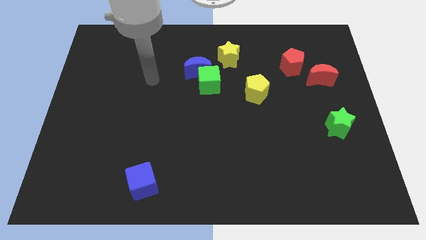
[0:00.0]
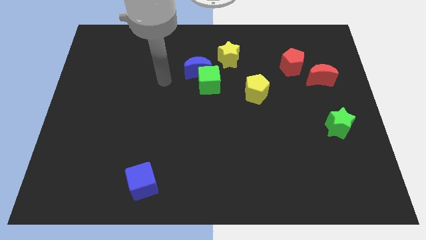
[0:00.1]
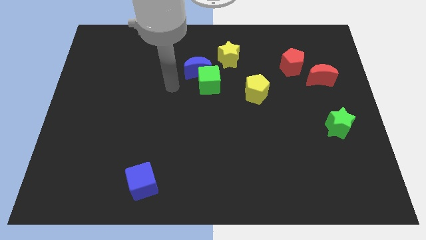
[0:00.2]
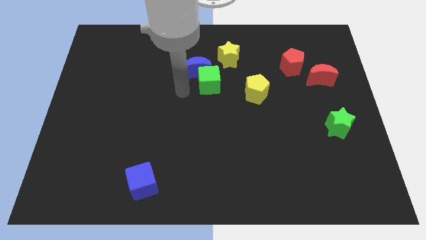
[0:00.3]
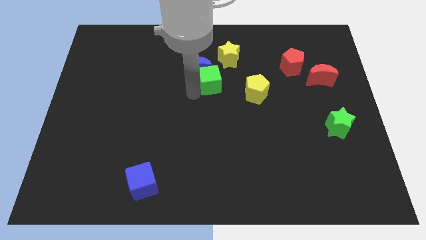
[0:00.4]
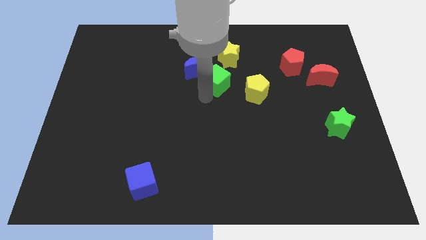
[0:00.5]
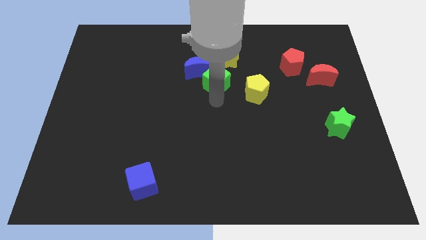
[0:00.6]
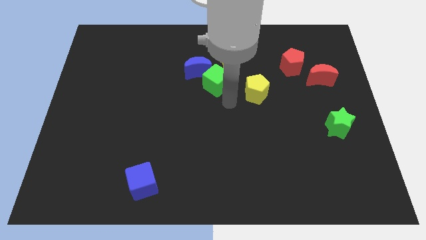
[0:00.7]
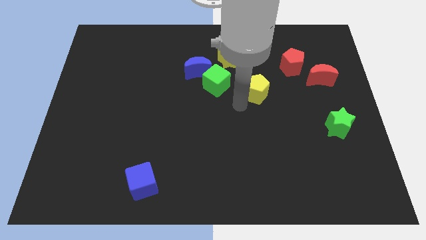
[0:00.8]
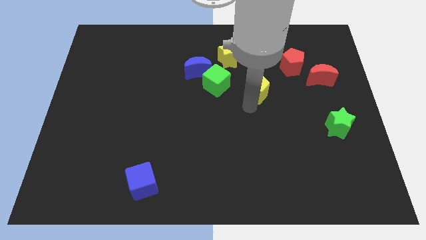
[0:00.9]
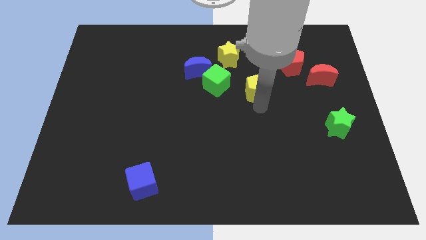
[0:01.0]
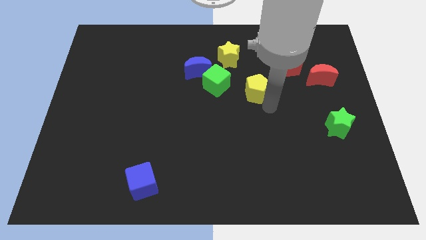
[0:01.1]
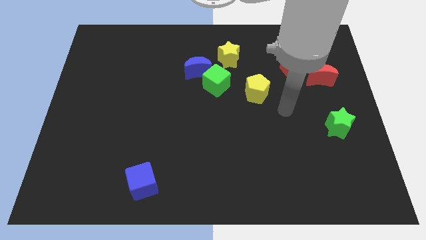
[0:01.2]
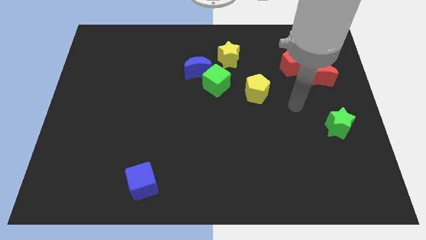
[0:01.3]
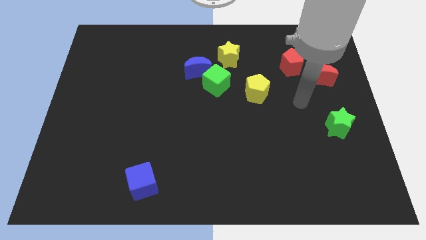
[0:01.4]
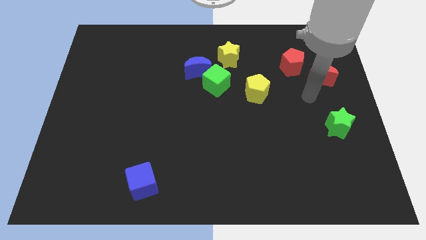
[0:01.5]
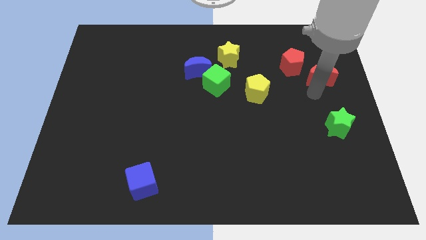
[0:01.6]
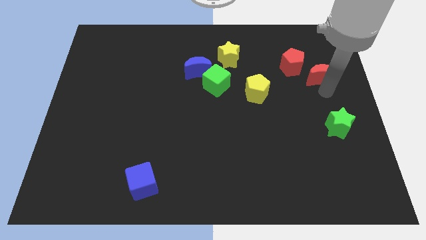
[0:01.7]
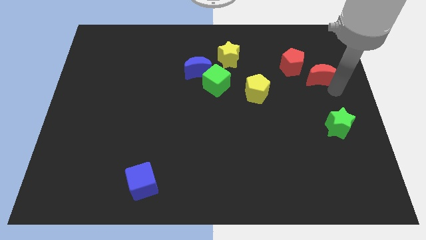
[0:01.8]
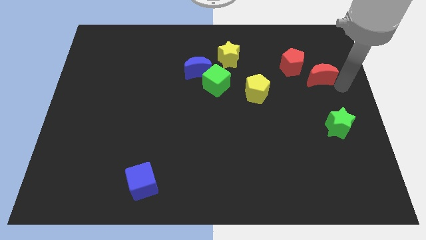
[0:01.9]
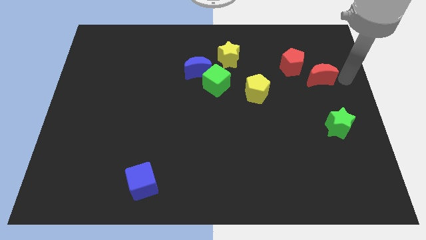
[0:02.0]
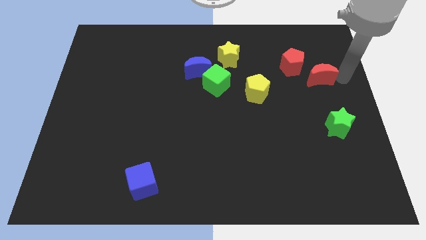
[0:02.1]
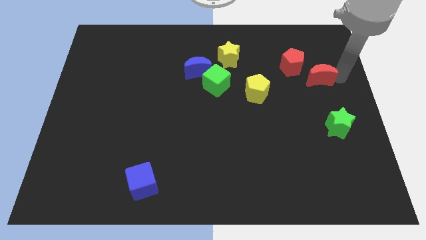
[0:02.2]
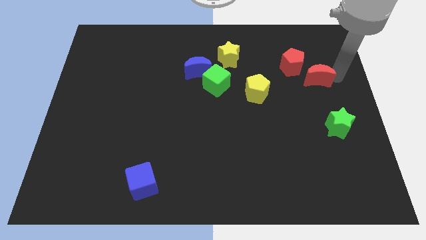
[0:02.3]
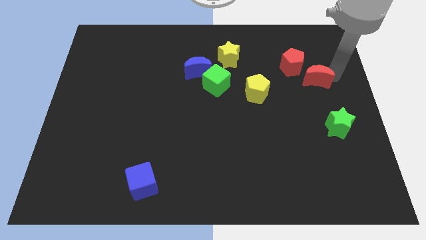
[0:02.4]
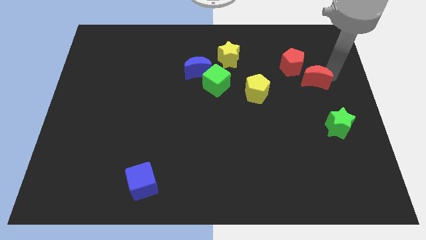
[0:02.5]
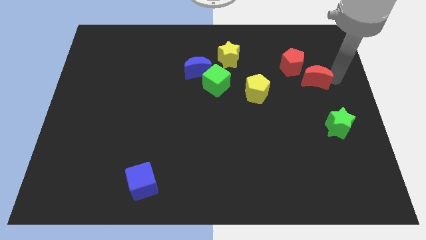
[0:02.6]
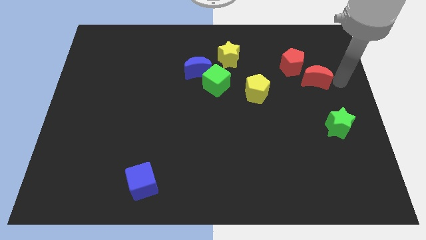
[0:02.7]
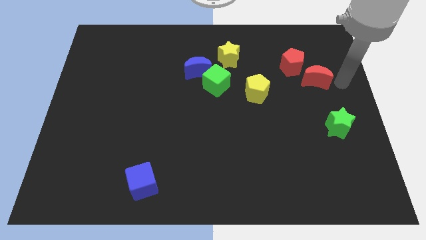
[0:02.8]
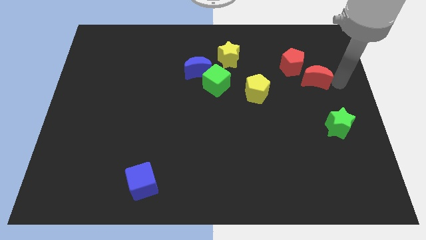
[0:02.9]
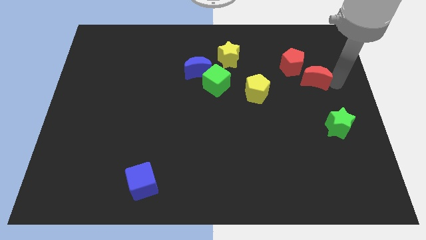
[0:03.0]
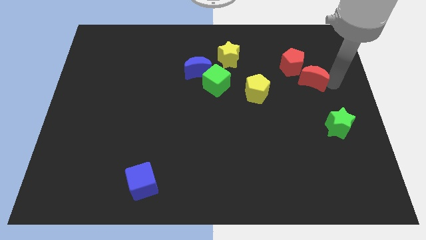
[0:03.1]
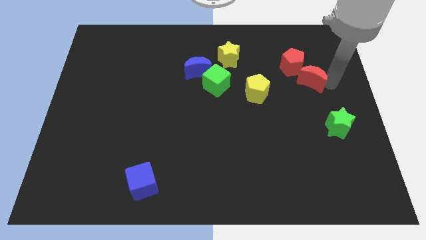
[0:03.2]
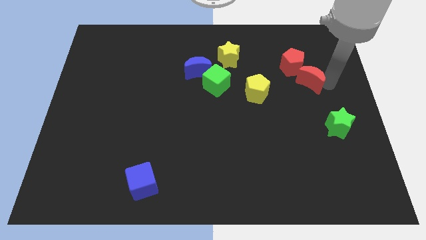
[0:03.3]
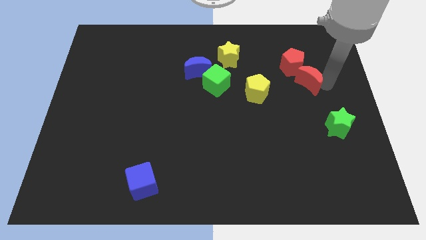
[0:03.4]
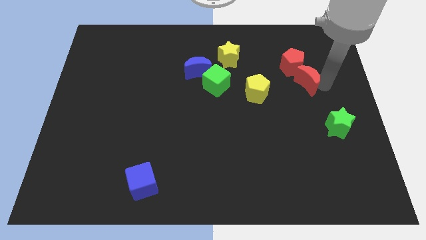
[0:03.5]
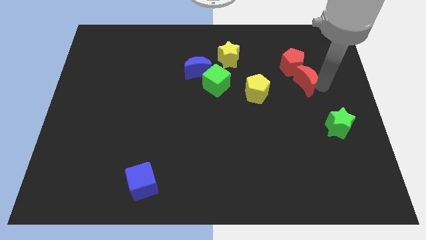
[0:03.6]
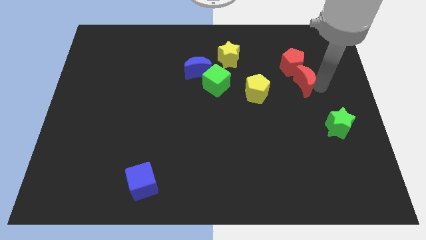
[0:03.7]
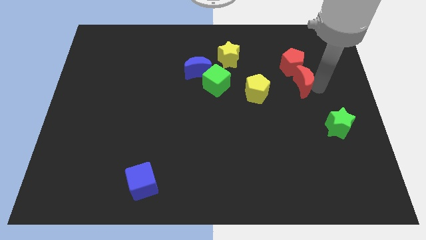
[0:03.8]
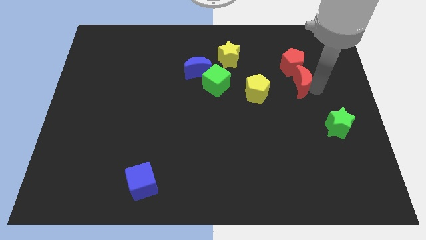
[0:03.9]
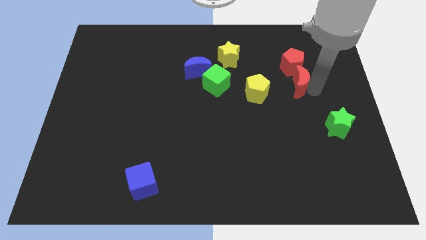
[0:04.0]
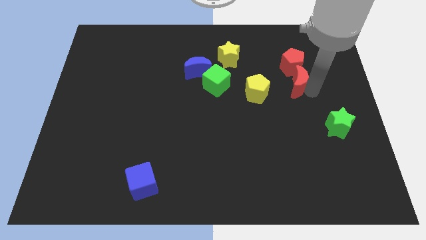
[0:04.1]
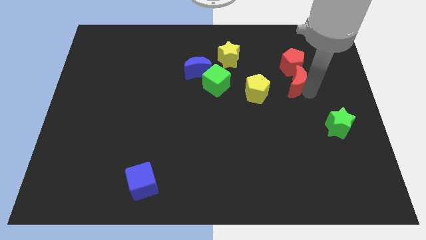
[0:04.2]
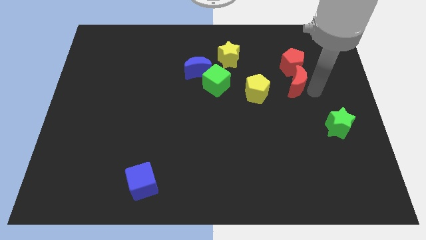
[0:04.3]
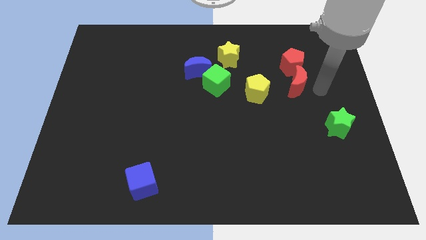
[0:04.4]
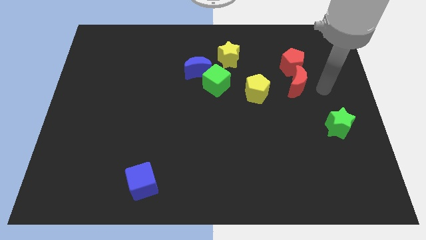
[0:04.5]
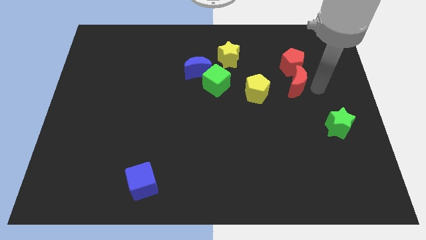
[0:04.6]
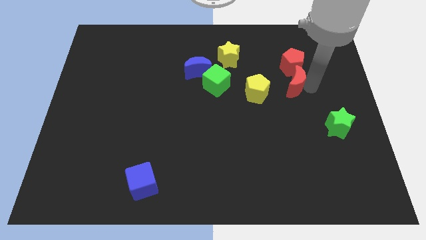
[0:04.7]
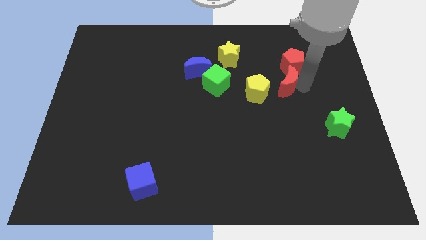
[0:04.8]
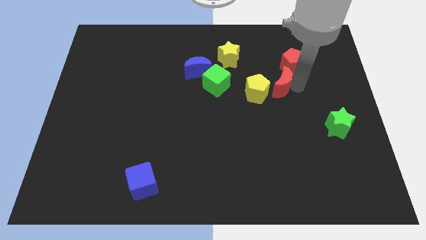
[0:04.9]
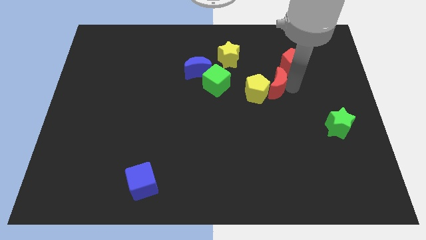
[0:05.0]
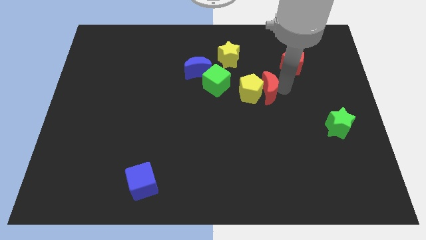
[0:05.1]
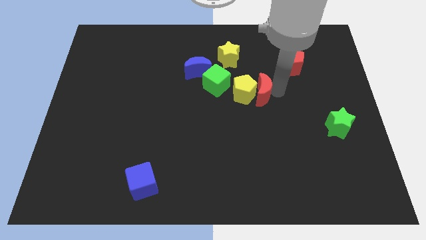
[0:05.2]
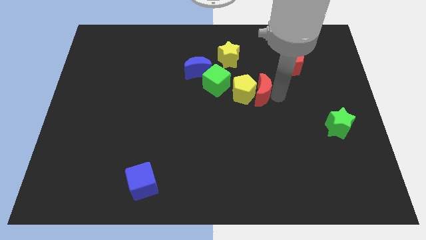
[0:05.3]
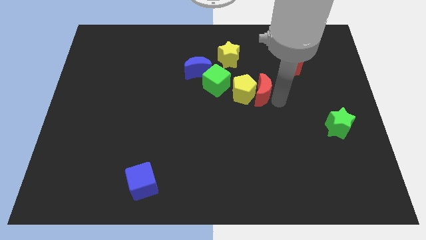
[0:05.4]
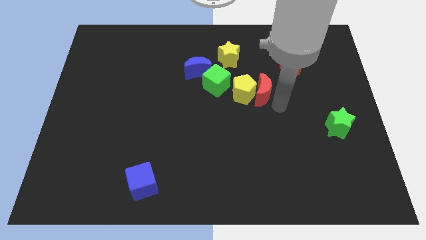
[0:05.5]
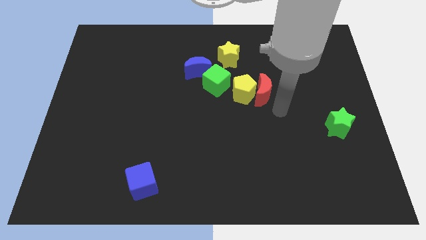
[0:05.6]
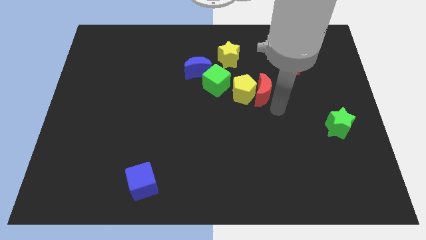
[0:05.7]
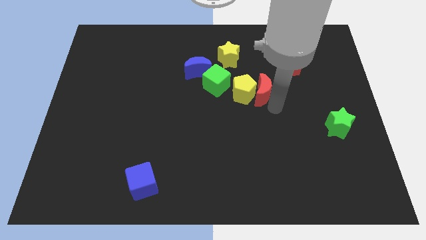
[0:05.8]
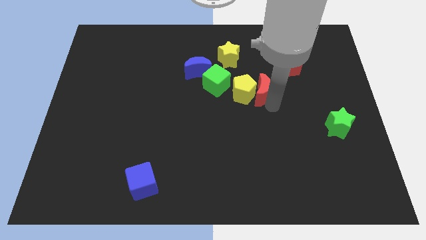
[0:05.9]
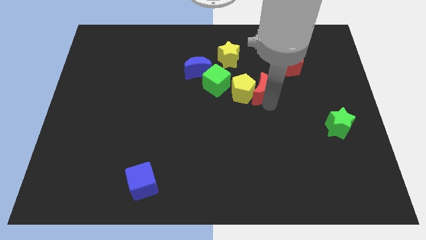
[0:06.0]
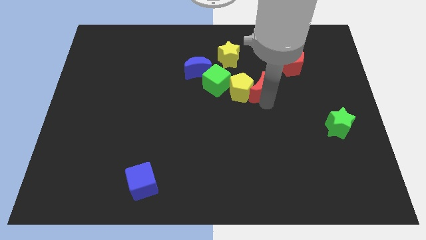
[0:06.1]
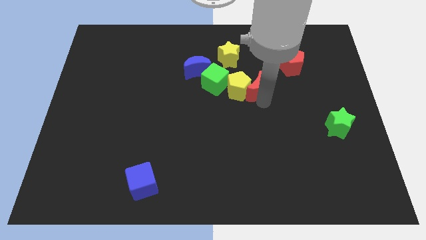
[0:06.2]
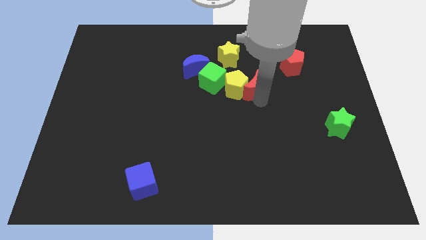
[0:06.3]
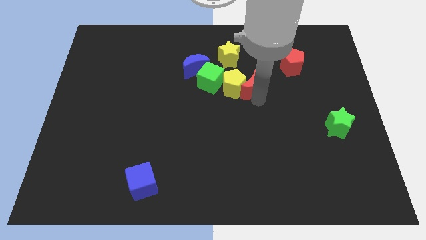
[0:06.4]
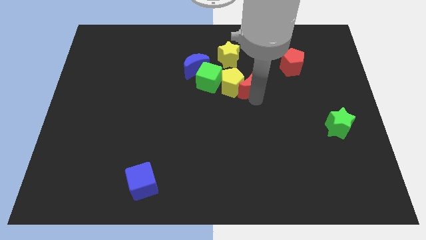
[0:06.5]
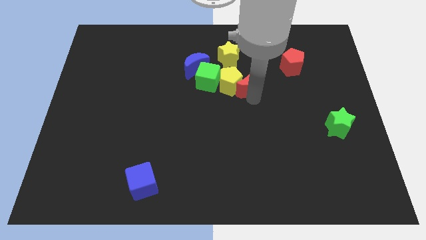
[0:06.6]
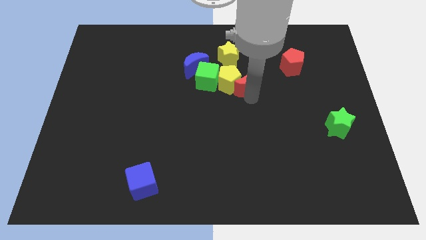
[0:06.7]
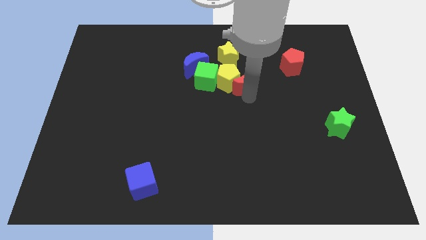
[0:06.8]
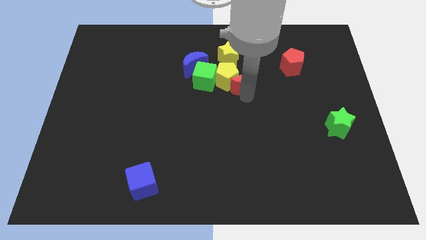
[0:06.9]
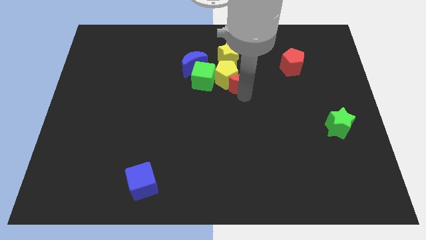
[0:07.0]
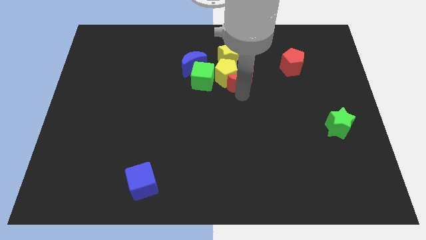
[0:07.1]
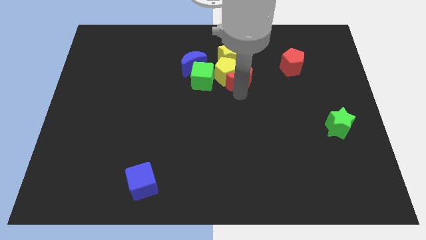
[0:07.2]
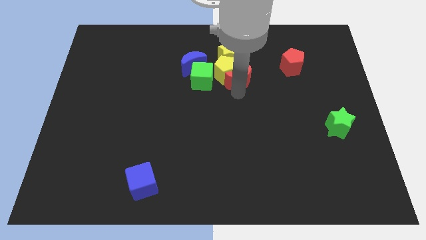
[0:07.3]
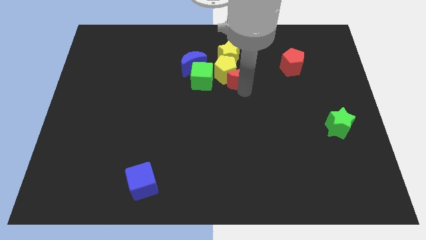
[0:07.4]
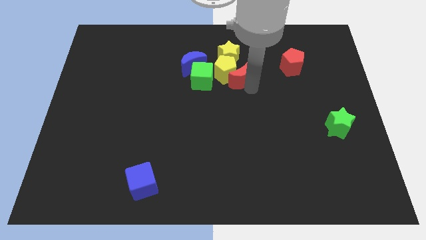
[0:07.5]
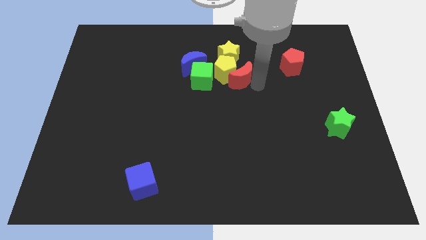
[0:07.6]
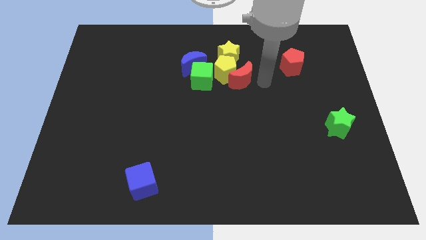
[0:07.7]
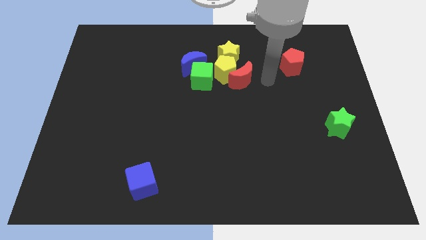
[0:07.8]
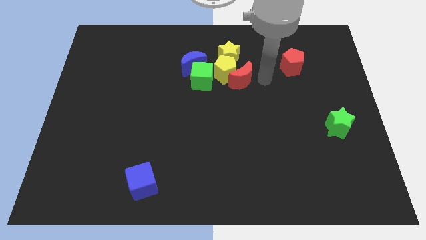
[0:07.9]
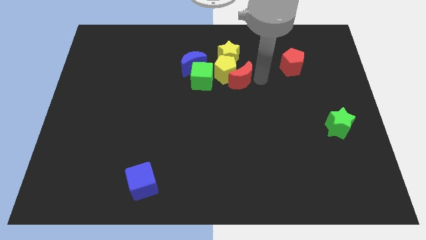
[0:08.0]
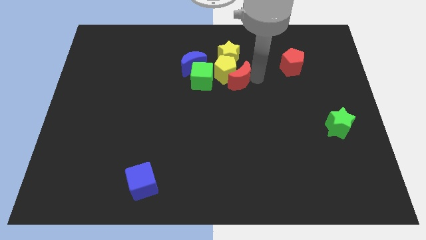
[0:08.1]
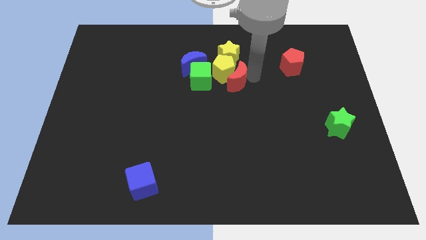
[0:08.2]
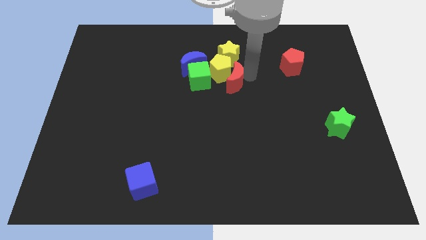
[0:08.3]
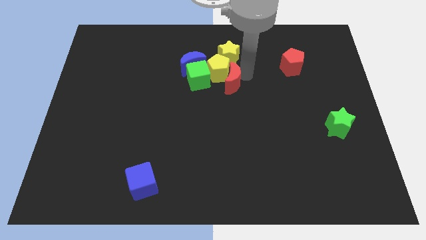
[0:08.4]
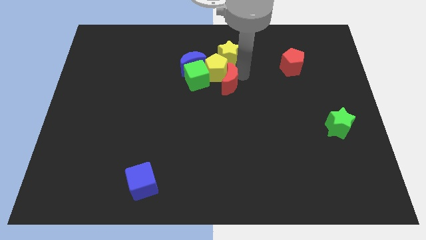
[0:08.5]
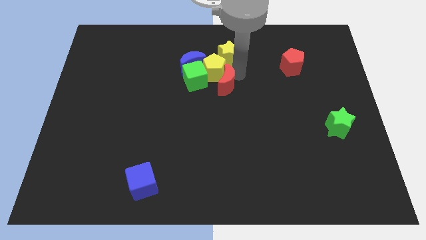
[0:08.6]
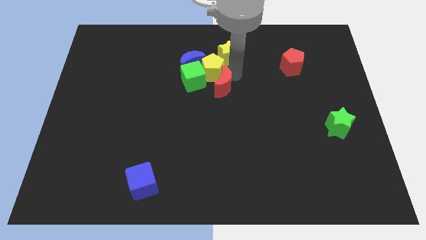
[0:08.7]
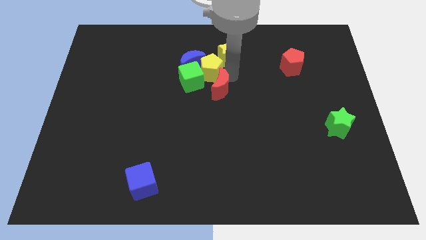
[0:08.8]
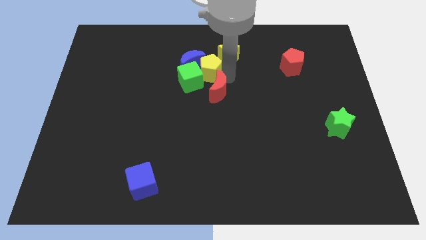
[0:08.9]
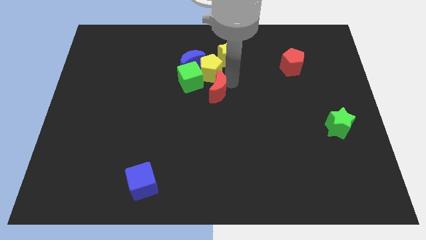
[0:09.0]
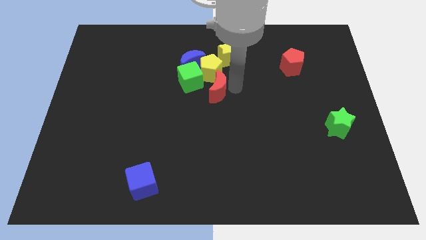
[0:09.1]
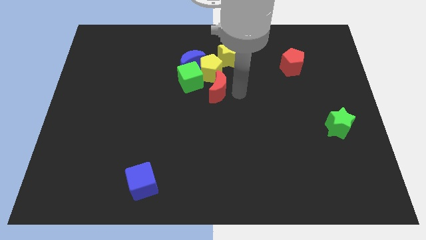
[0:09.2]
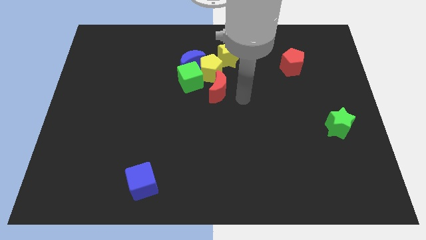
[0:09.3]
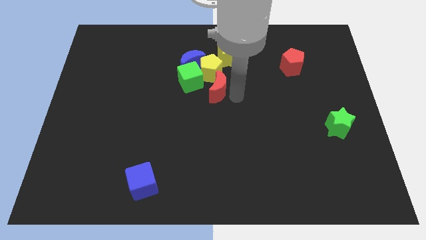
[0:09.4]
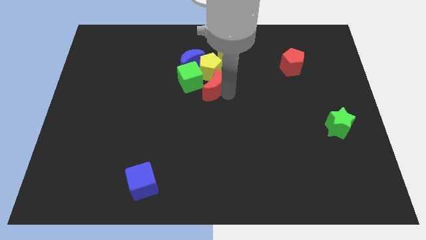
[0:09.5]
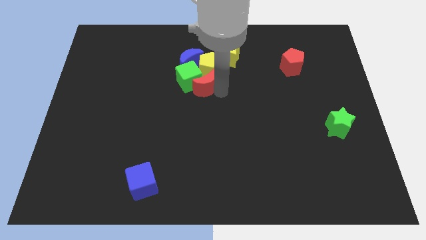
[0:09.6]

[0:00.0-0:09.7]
put the red moon close to the green cube
